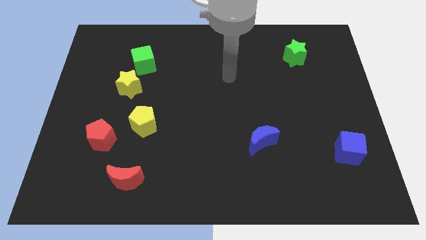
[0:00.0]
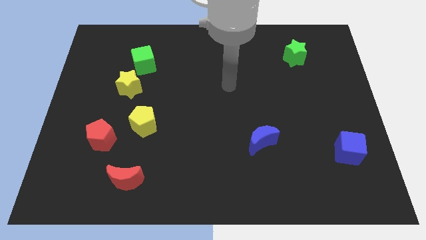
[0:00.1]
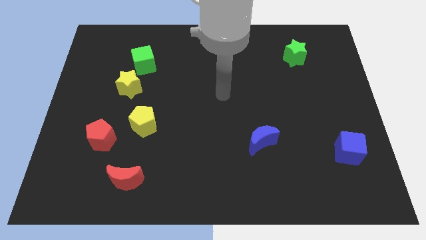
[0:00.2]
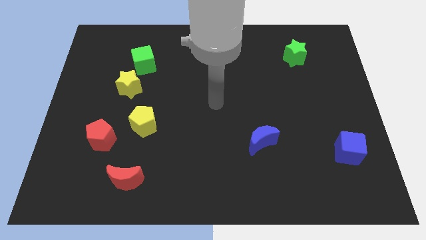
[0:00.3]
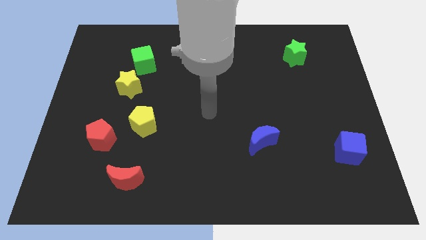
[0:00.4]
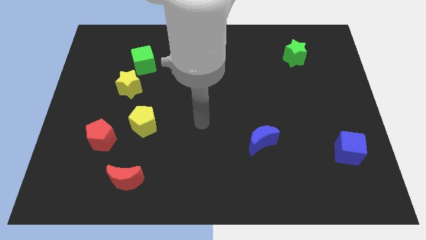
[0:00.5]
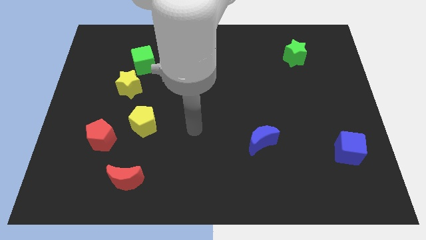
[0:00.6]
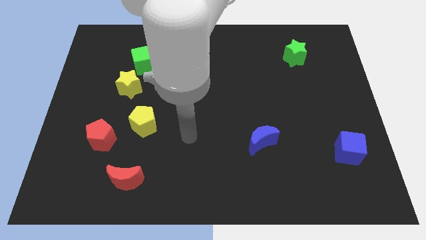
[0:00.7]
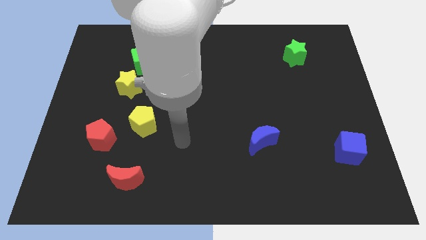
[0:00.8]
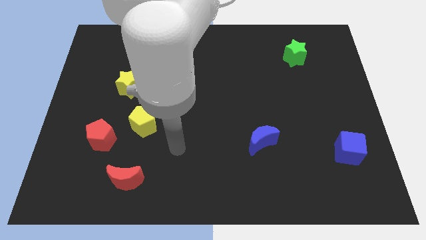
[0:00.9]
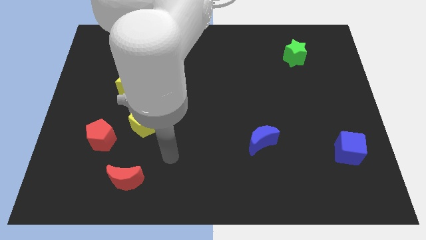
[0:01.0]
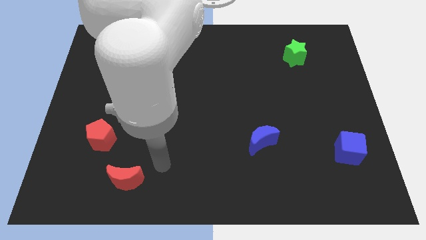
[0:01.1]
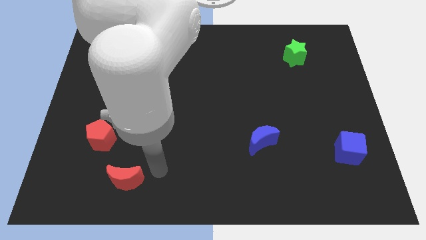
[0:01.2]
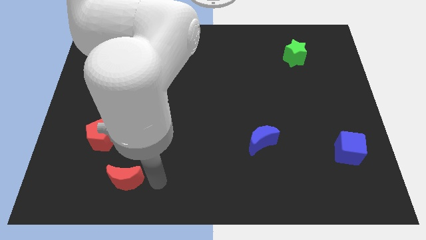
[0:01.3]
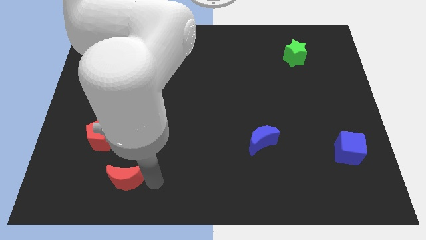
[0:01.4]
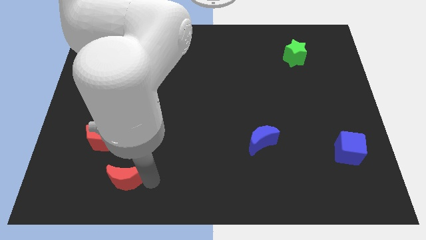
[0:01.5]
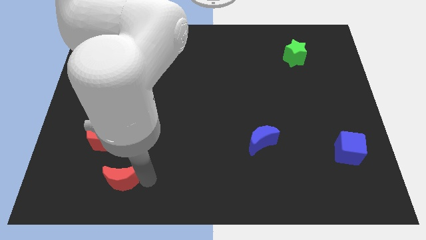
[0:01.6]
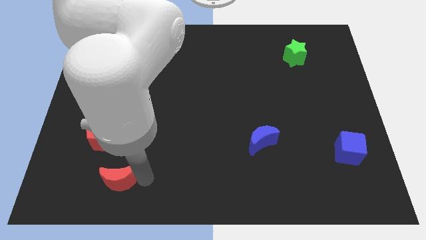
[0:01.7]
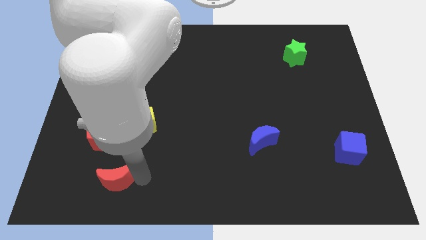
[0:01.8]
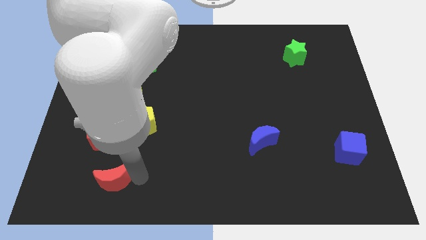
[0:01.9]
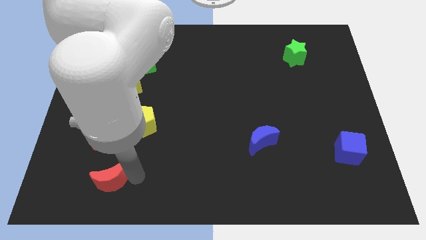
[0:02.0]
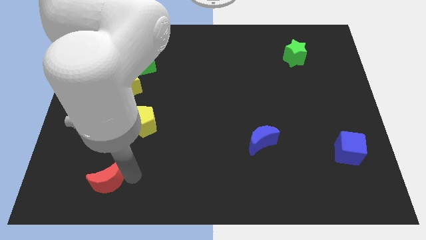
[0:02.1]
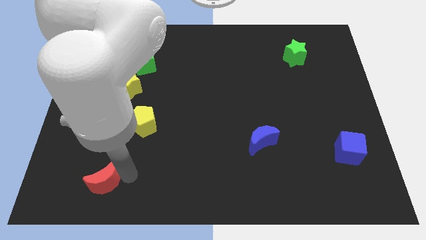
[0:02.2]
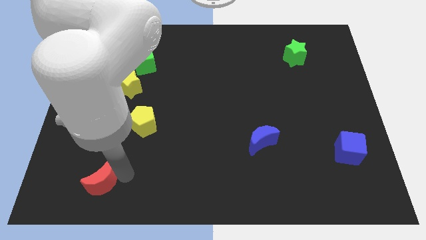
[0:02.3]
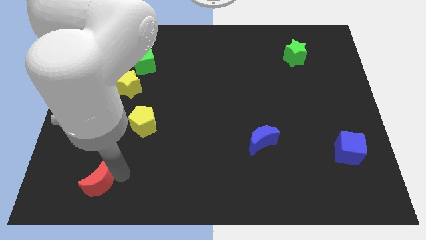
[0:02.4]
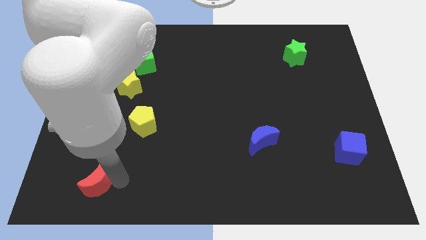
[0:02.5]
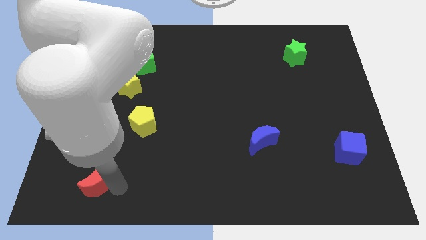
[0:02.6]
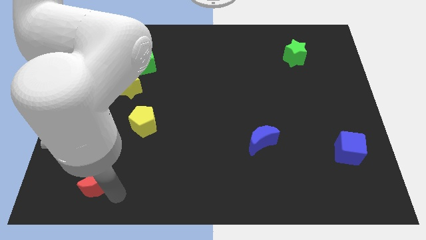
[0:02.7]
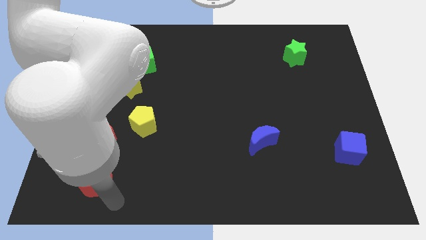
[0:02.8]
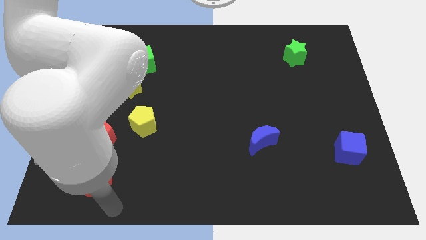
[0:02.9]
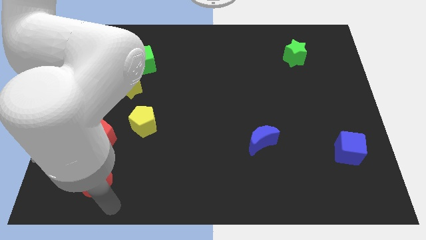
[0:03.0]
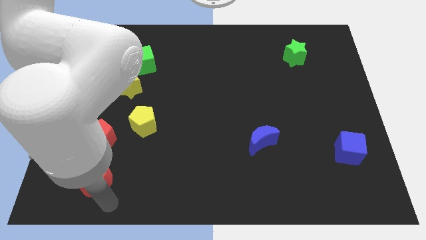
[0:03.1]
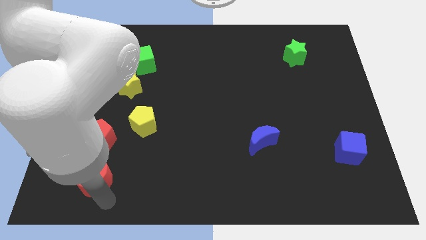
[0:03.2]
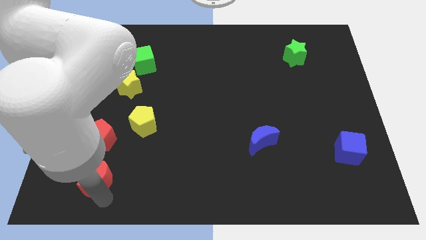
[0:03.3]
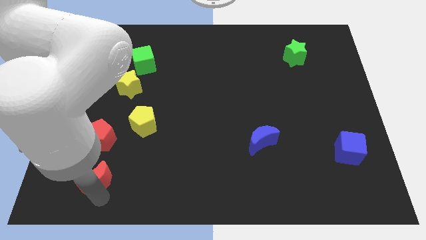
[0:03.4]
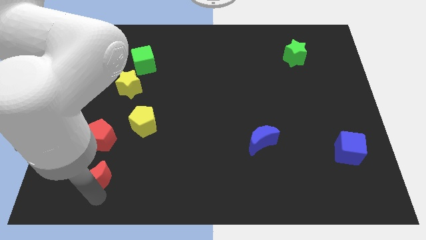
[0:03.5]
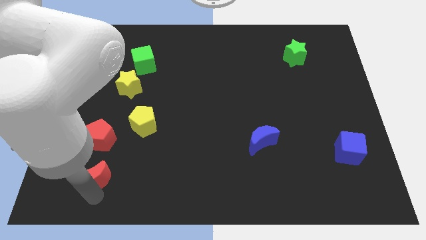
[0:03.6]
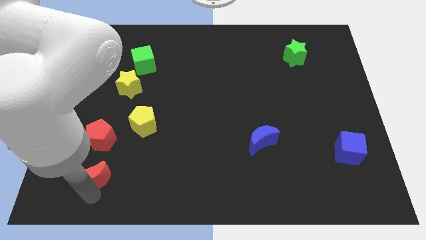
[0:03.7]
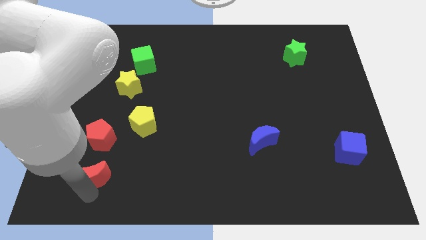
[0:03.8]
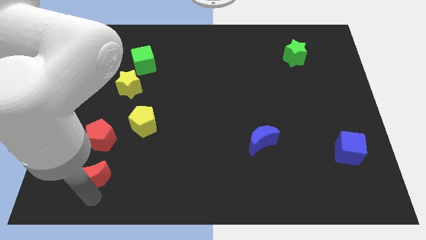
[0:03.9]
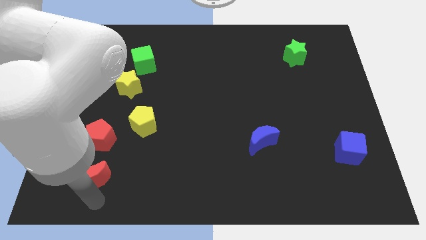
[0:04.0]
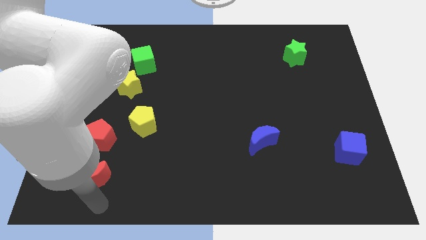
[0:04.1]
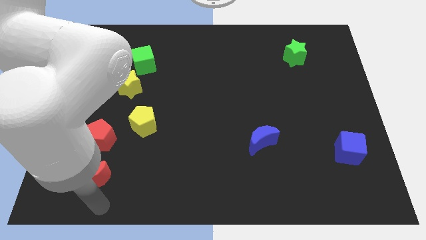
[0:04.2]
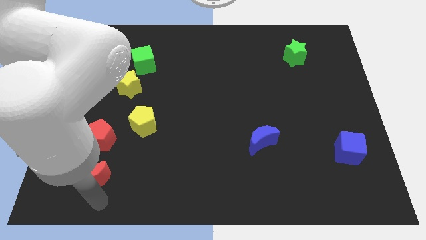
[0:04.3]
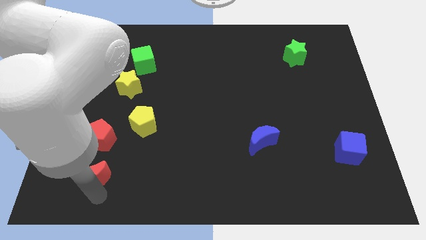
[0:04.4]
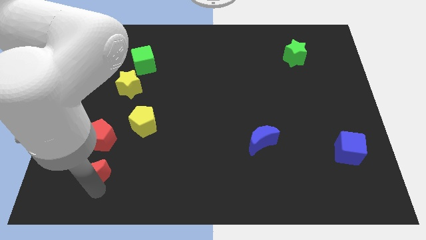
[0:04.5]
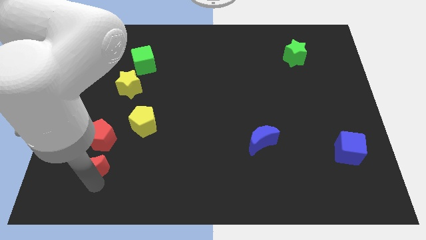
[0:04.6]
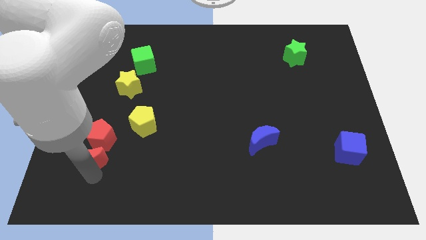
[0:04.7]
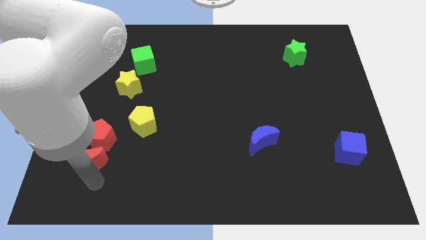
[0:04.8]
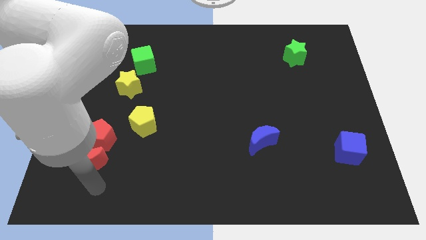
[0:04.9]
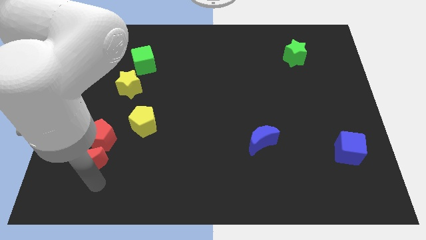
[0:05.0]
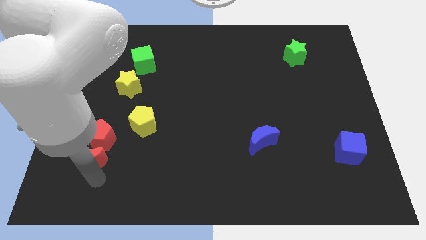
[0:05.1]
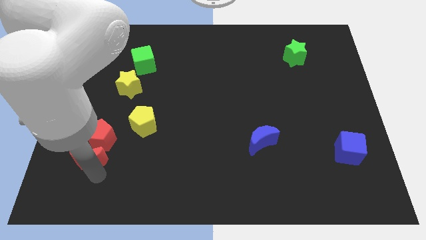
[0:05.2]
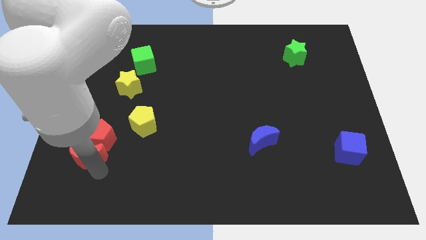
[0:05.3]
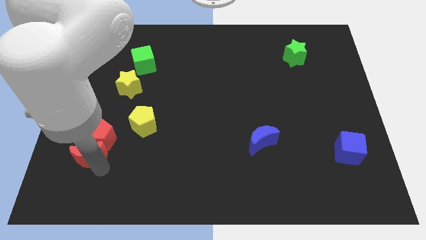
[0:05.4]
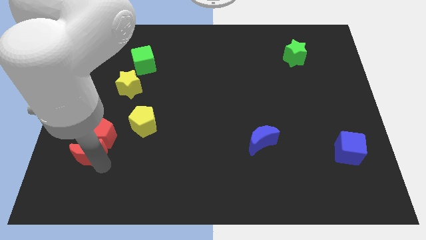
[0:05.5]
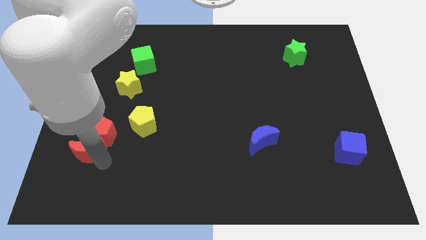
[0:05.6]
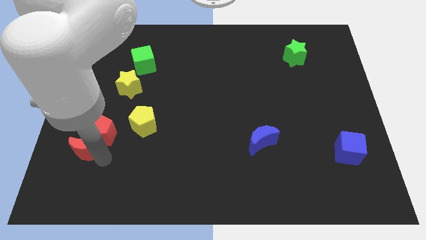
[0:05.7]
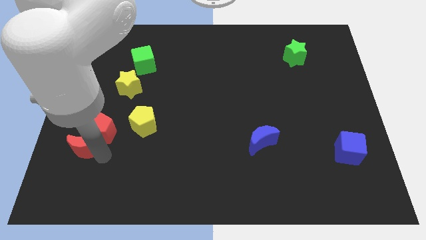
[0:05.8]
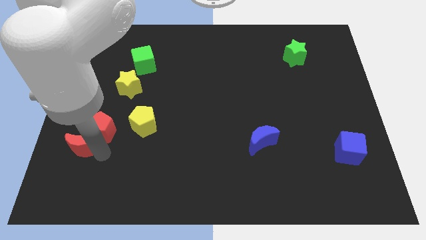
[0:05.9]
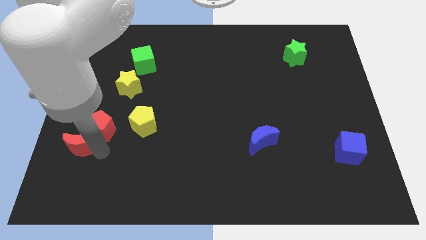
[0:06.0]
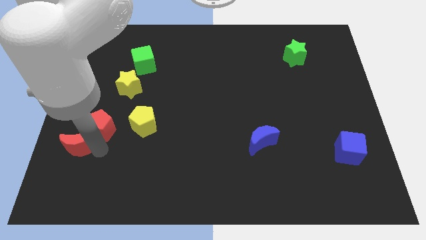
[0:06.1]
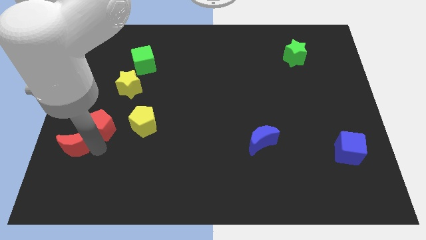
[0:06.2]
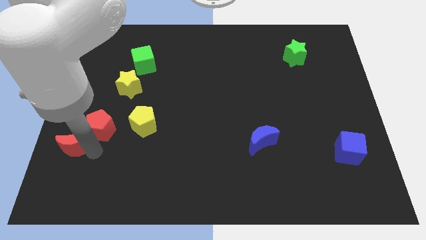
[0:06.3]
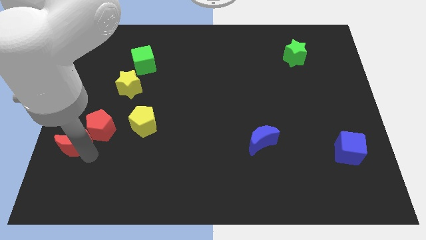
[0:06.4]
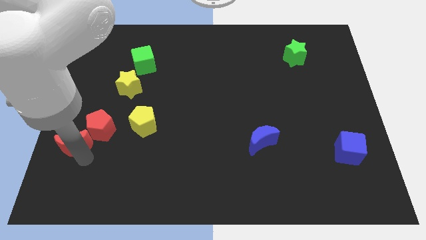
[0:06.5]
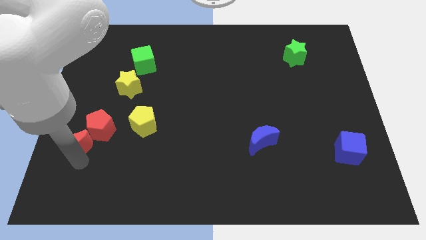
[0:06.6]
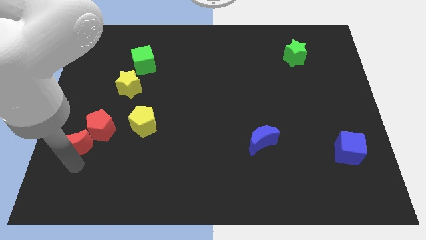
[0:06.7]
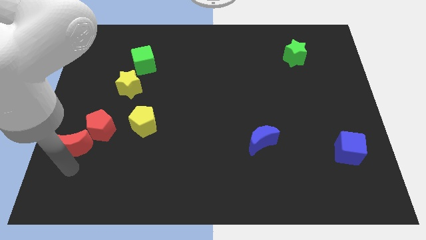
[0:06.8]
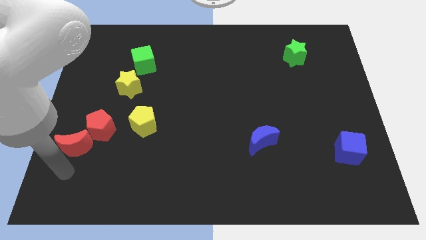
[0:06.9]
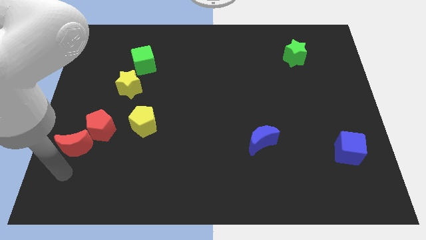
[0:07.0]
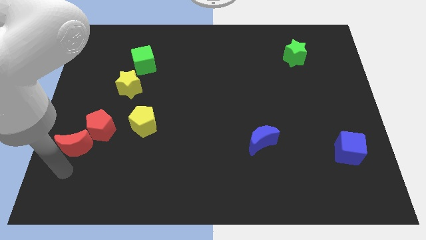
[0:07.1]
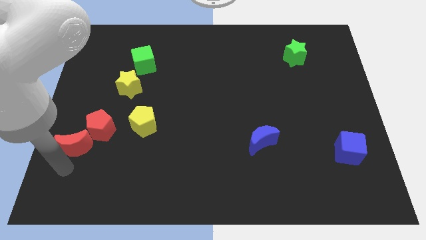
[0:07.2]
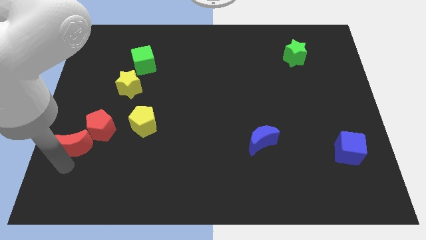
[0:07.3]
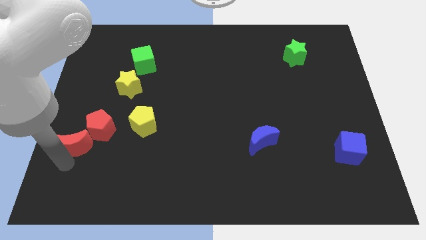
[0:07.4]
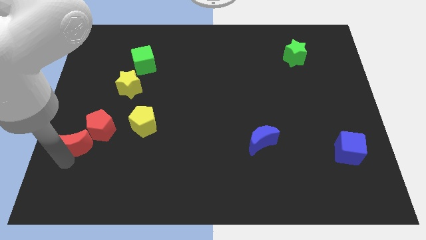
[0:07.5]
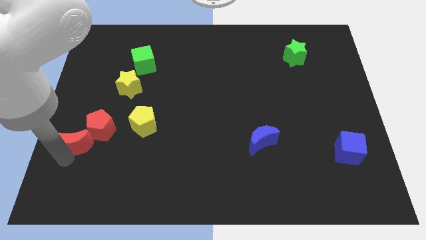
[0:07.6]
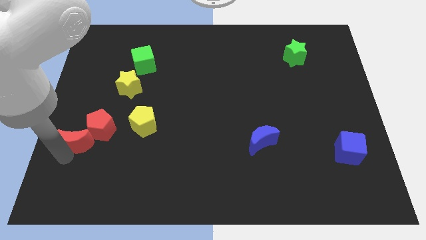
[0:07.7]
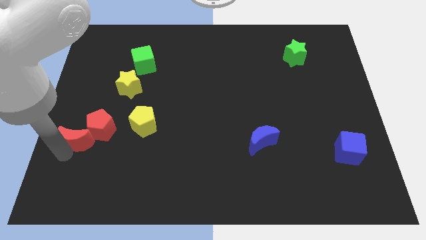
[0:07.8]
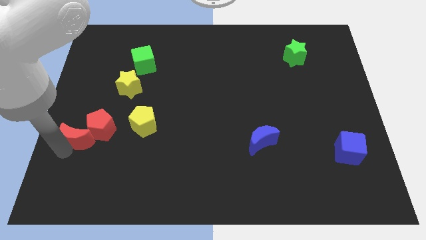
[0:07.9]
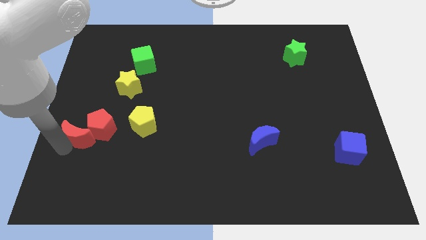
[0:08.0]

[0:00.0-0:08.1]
slide the red moon left of the yellow pentagon
